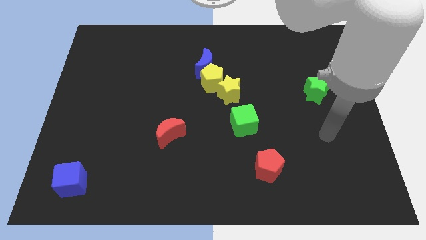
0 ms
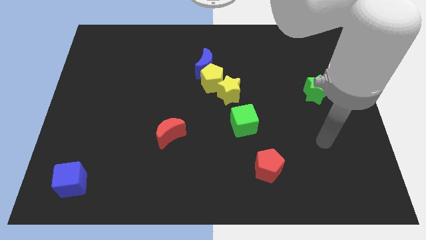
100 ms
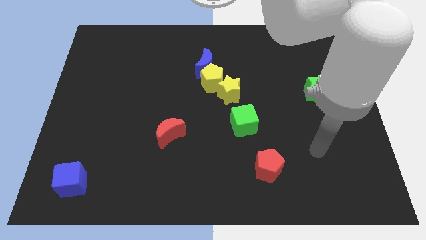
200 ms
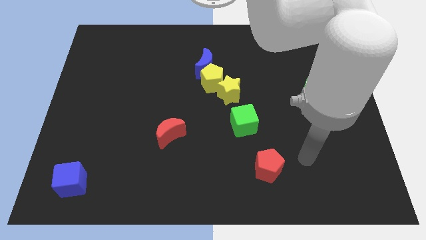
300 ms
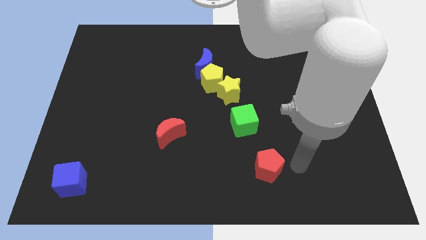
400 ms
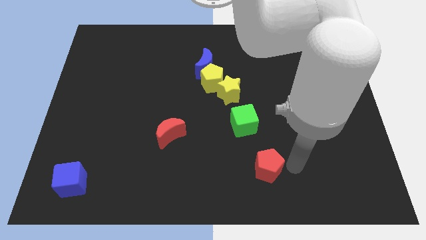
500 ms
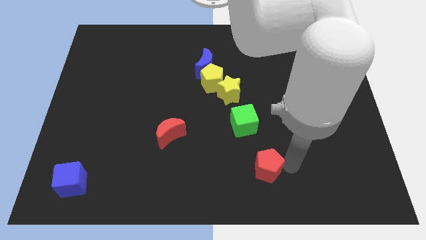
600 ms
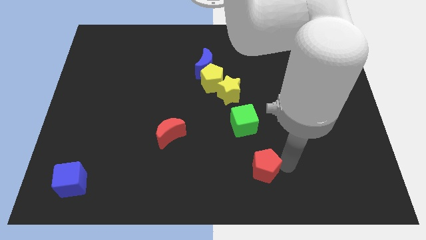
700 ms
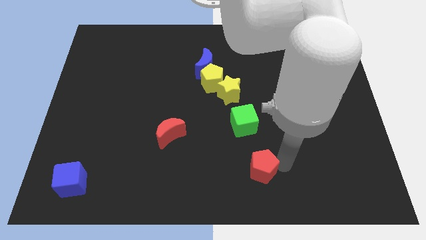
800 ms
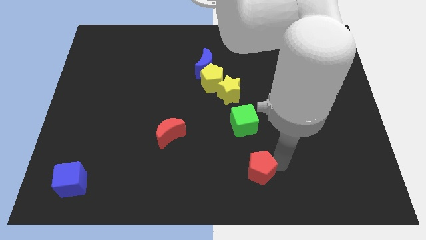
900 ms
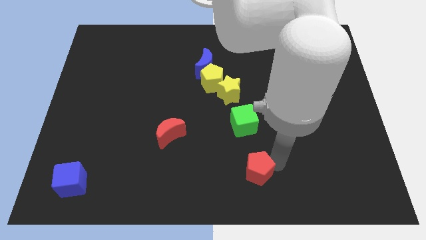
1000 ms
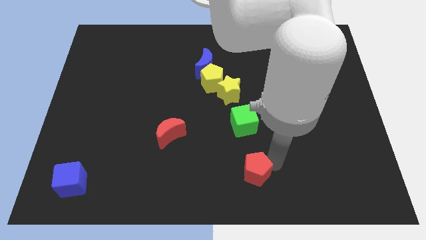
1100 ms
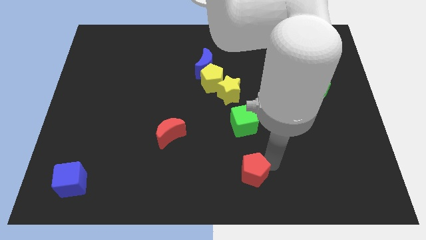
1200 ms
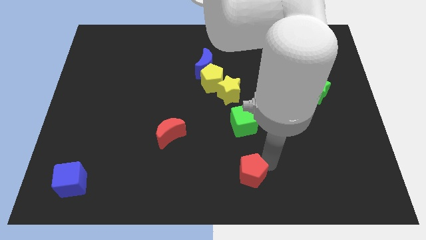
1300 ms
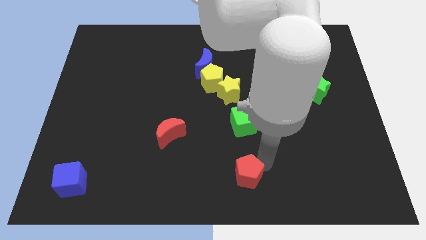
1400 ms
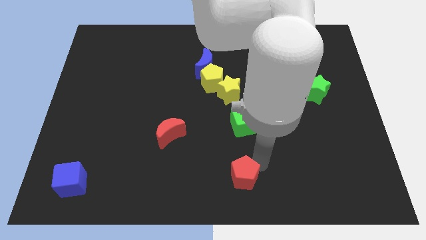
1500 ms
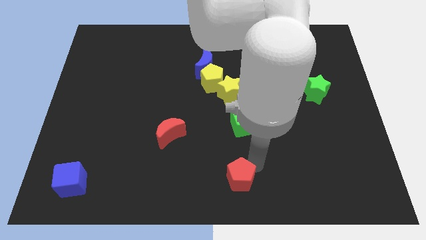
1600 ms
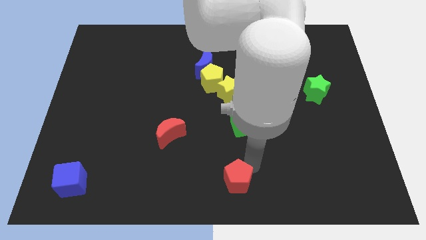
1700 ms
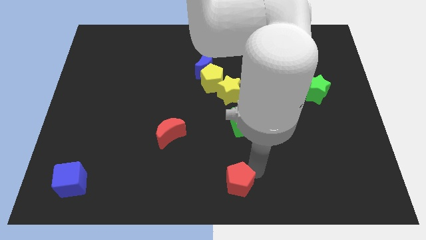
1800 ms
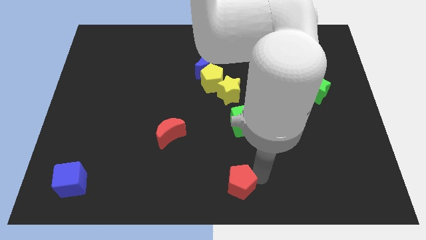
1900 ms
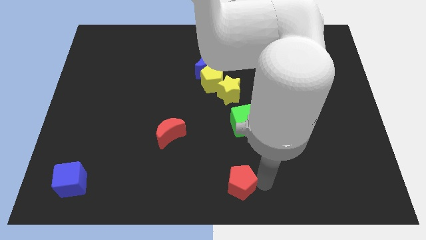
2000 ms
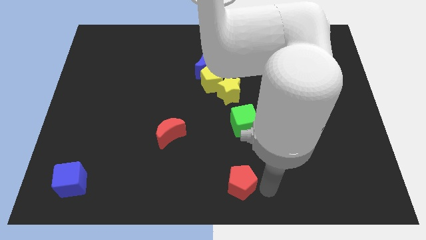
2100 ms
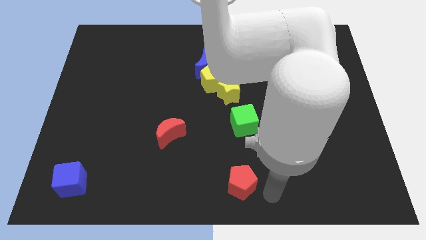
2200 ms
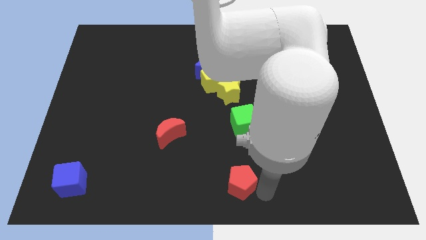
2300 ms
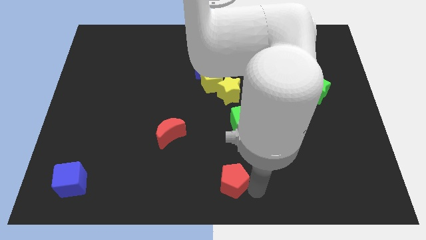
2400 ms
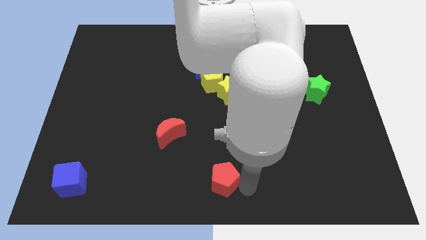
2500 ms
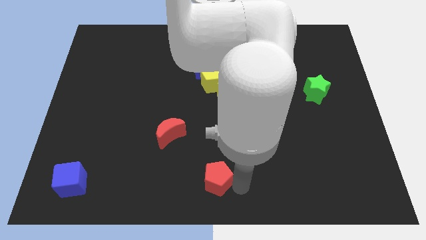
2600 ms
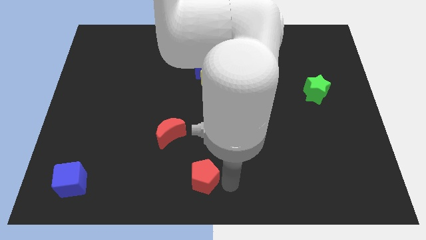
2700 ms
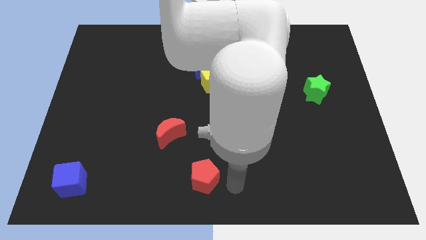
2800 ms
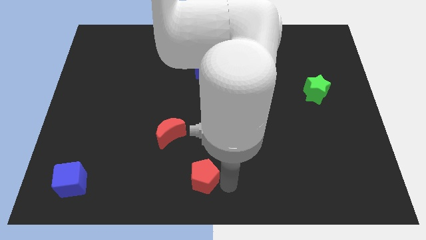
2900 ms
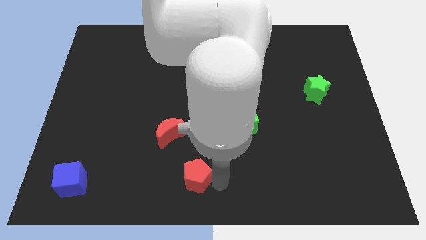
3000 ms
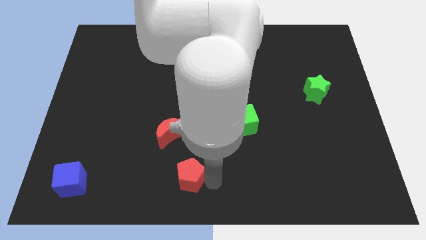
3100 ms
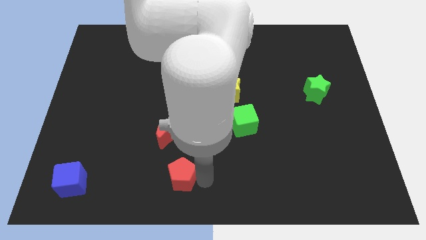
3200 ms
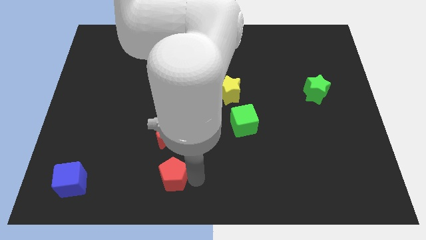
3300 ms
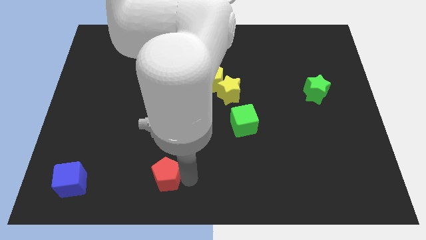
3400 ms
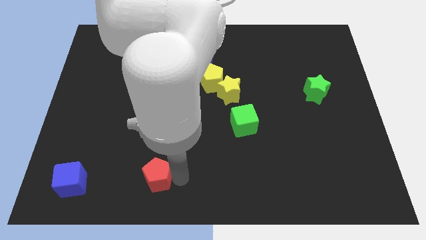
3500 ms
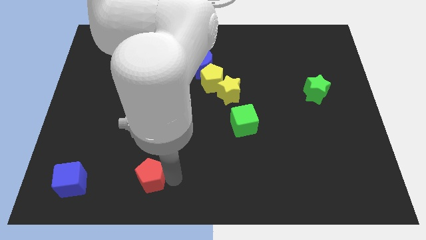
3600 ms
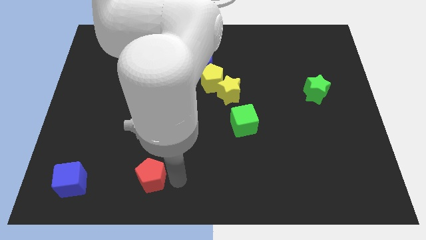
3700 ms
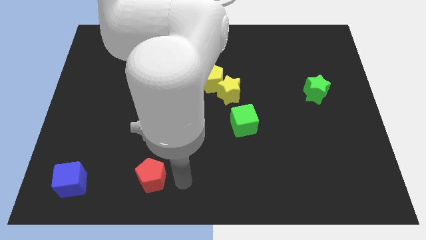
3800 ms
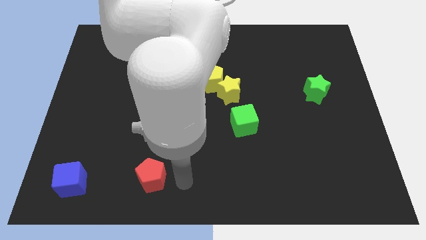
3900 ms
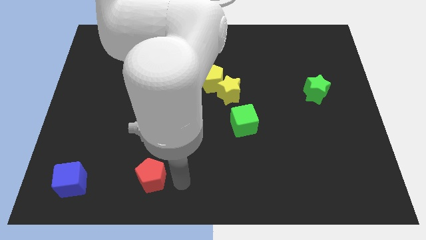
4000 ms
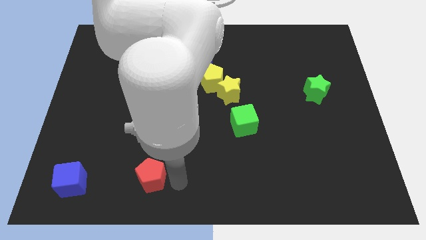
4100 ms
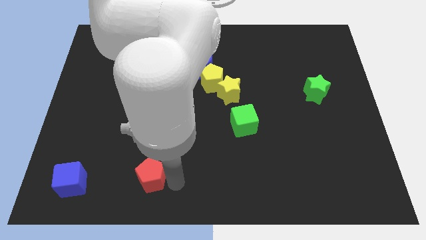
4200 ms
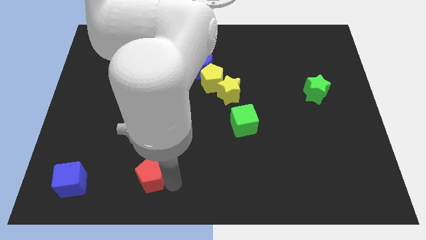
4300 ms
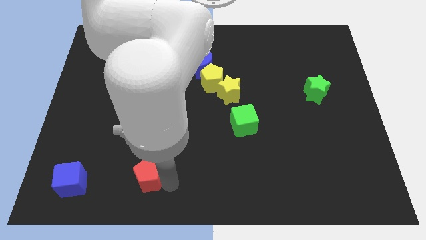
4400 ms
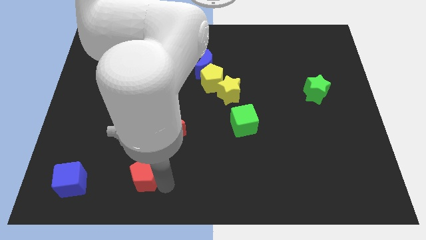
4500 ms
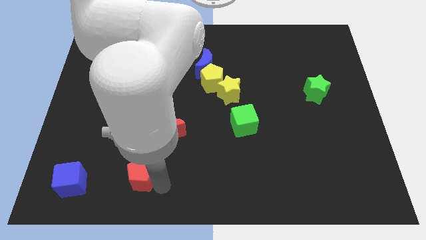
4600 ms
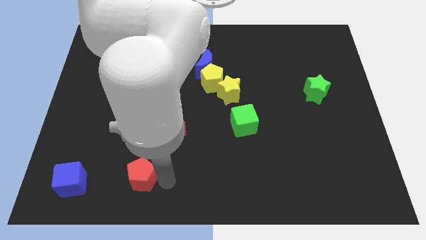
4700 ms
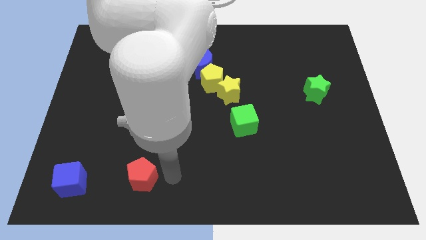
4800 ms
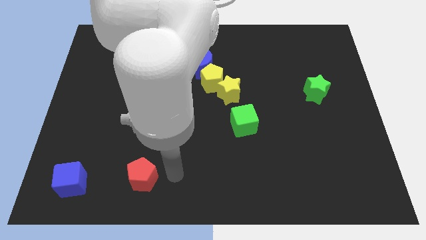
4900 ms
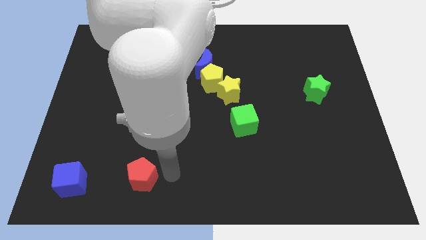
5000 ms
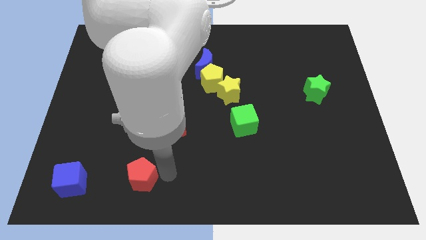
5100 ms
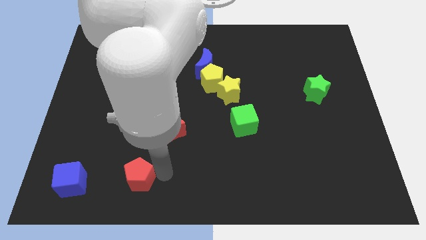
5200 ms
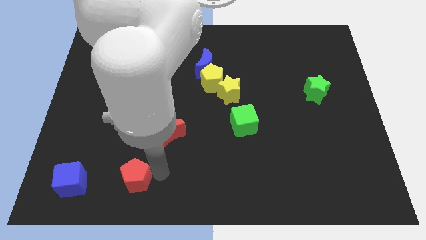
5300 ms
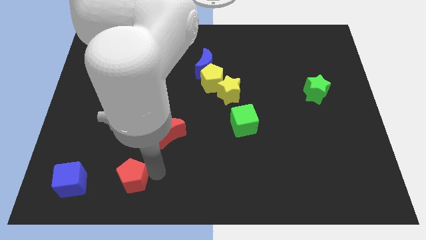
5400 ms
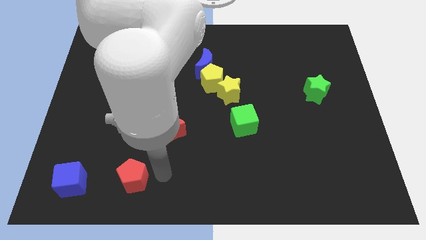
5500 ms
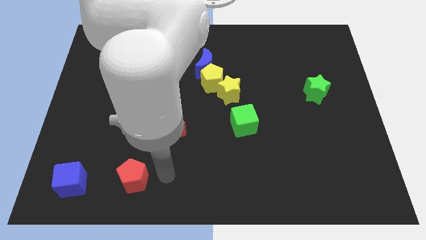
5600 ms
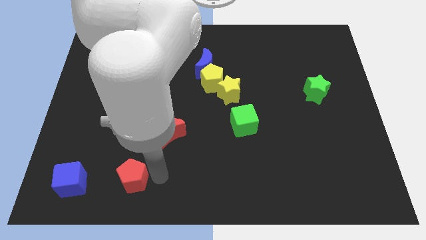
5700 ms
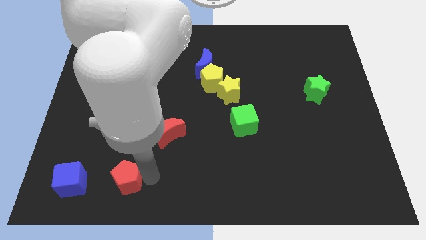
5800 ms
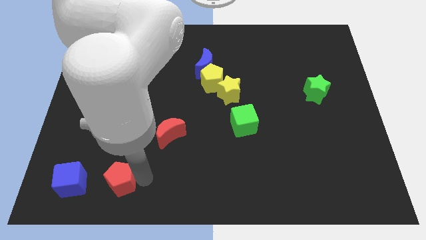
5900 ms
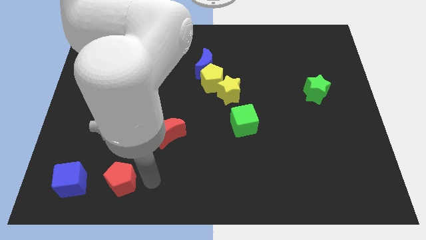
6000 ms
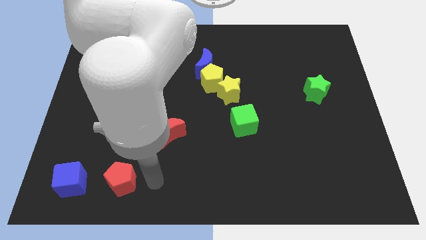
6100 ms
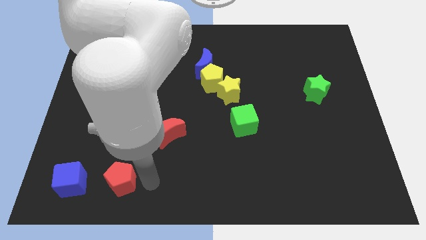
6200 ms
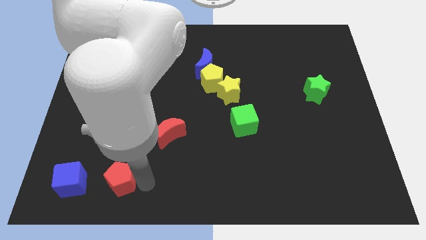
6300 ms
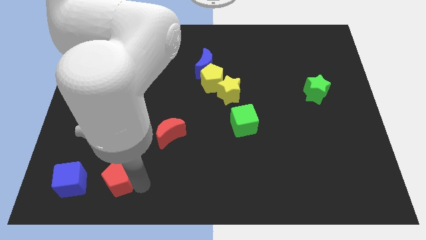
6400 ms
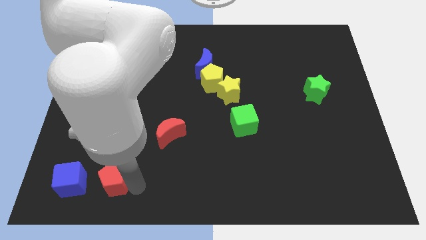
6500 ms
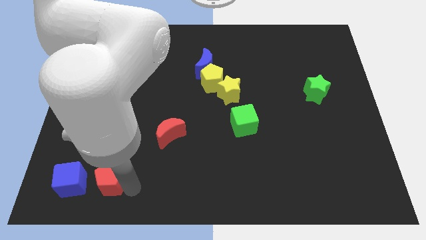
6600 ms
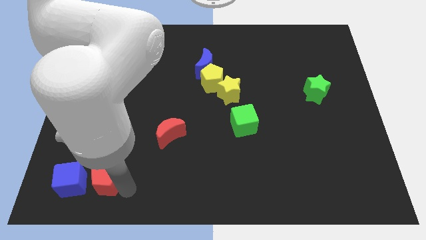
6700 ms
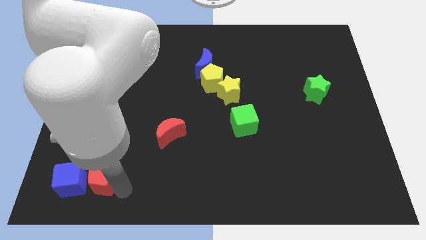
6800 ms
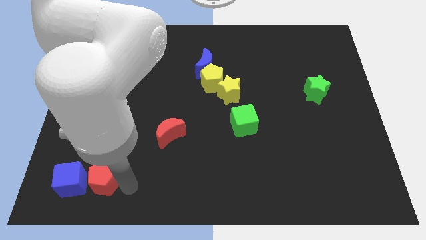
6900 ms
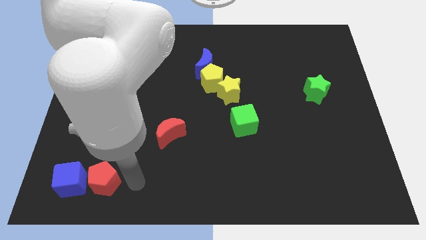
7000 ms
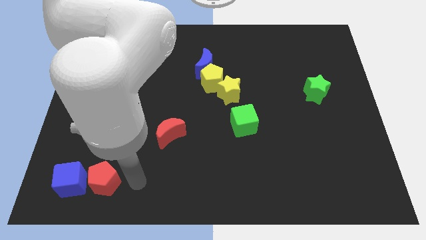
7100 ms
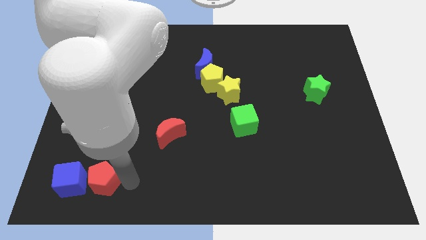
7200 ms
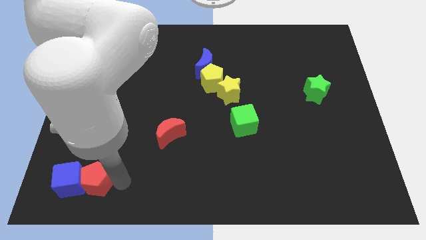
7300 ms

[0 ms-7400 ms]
push the red pentagon to the blue cube
